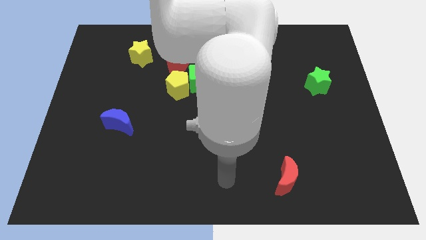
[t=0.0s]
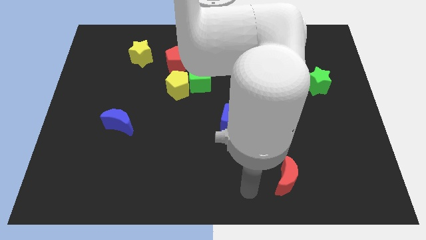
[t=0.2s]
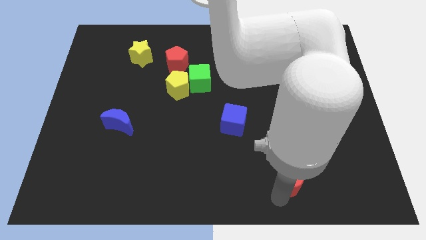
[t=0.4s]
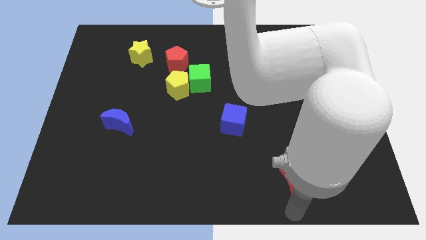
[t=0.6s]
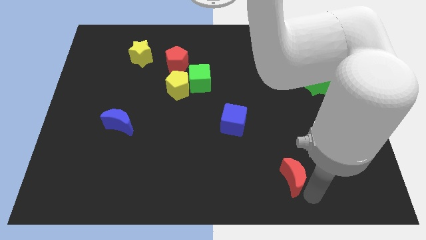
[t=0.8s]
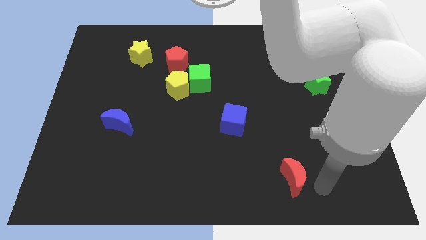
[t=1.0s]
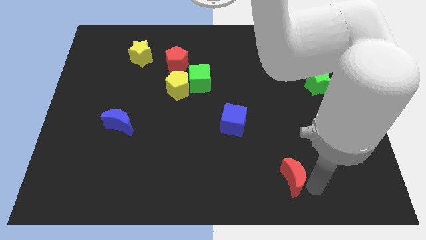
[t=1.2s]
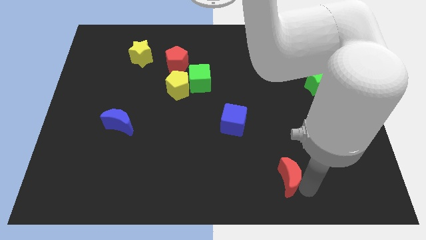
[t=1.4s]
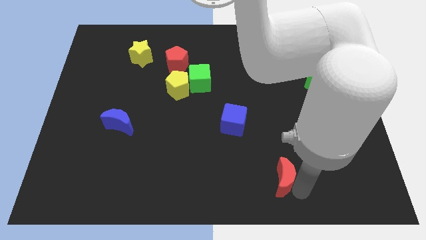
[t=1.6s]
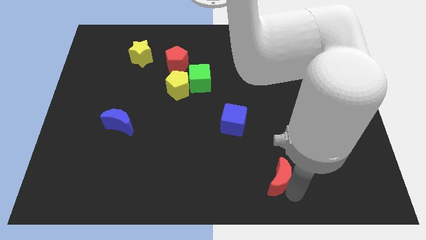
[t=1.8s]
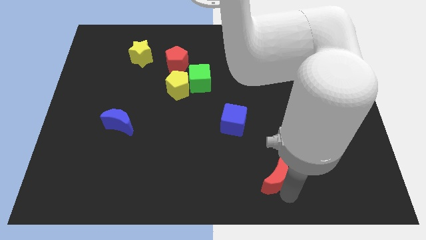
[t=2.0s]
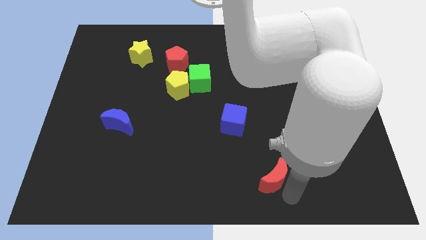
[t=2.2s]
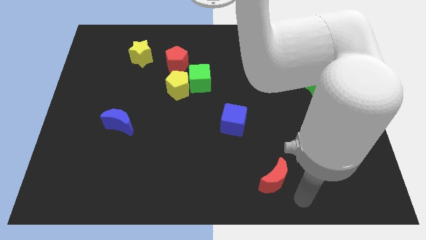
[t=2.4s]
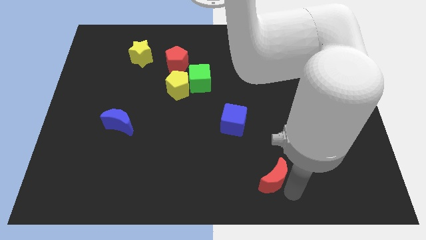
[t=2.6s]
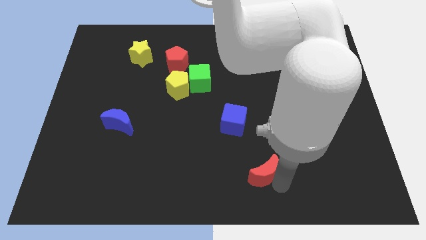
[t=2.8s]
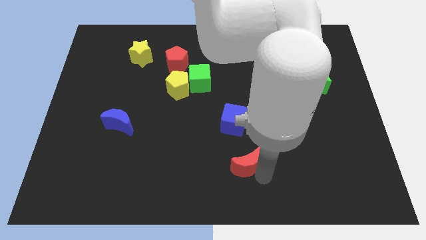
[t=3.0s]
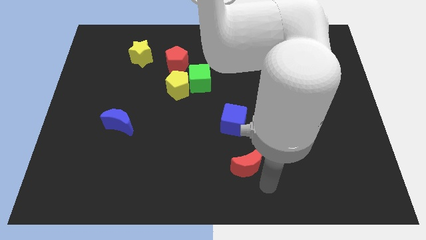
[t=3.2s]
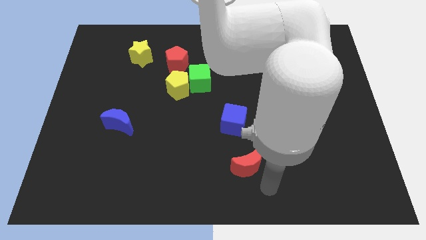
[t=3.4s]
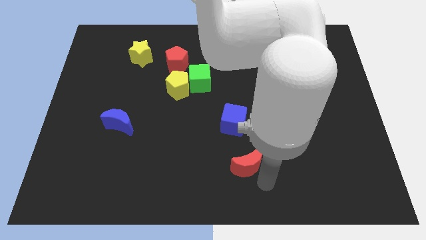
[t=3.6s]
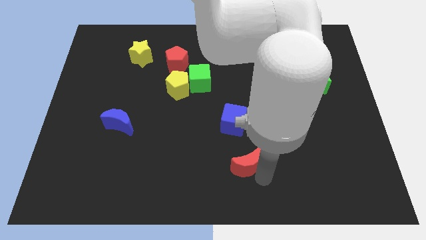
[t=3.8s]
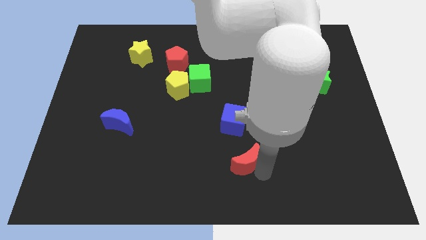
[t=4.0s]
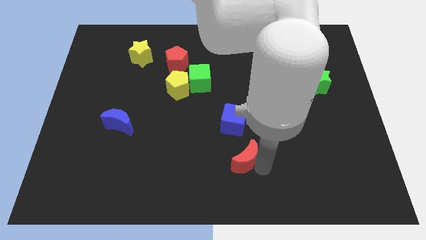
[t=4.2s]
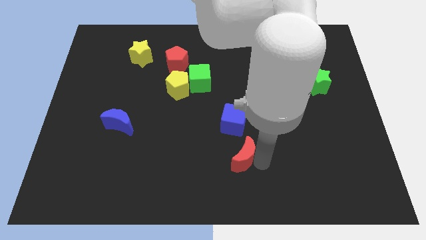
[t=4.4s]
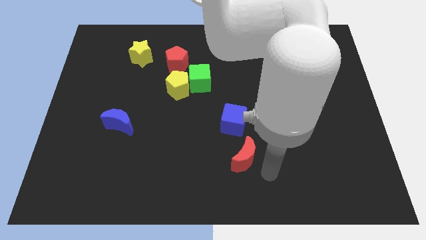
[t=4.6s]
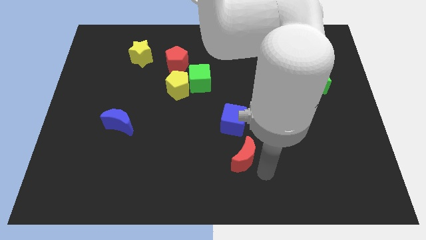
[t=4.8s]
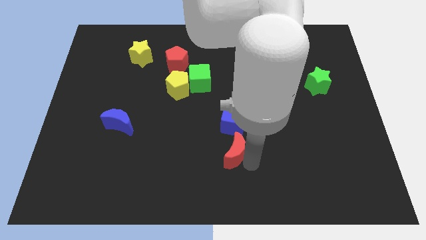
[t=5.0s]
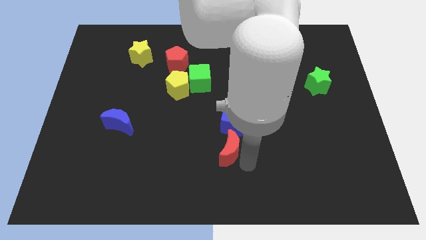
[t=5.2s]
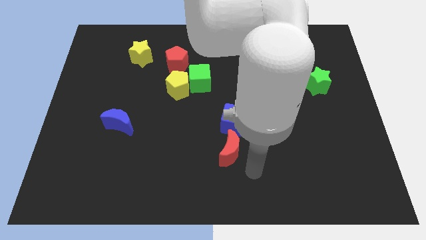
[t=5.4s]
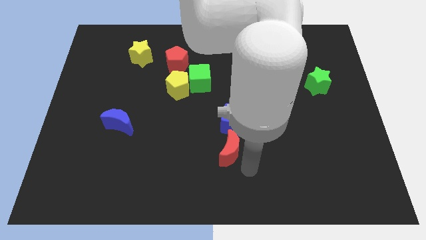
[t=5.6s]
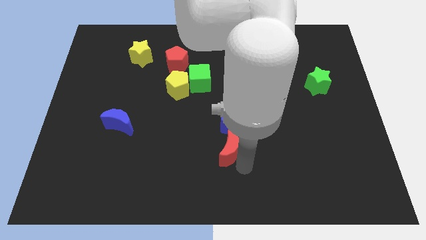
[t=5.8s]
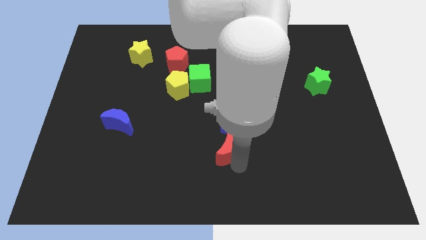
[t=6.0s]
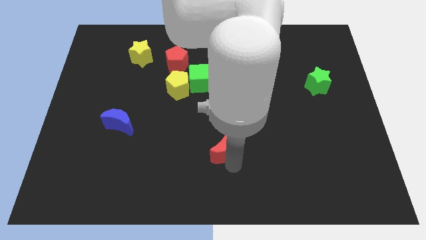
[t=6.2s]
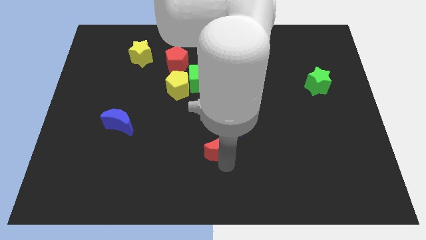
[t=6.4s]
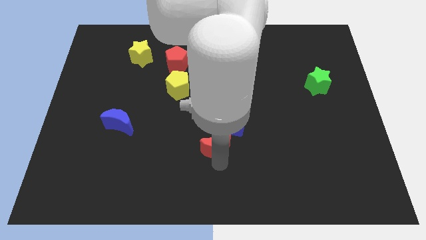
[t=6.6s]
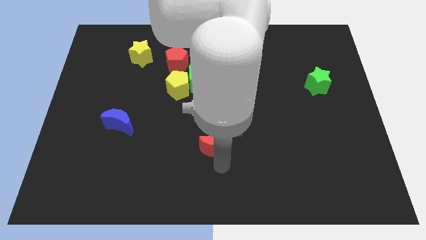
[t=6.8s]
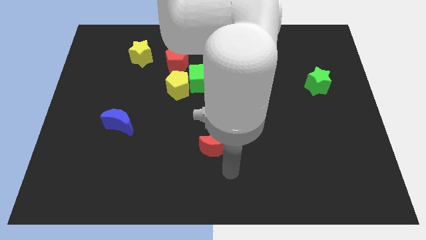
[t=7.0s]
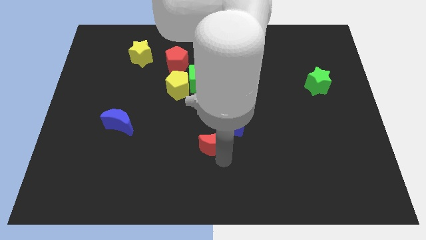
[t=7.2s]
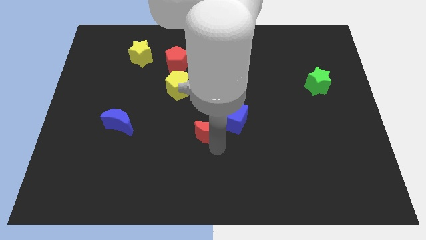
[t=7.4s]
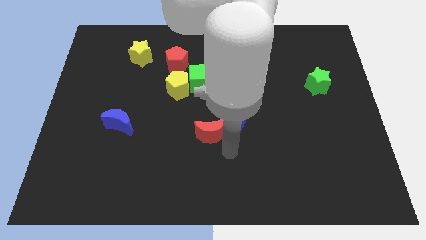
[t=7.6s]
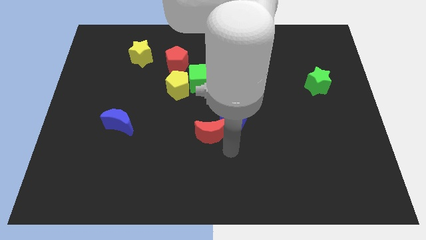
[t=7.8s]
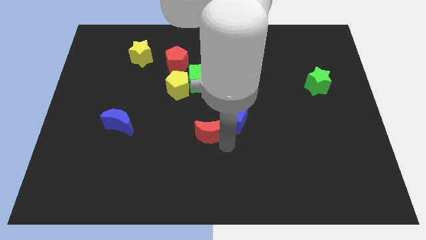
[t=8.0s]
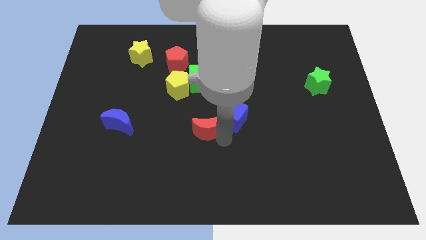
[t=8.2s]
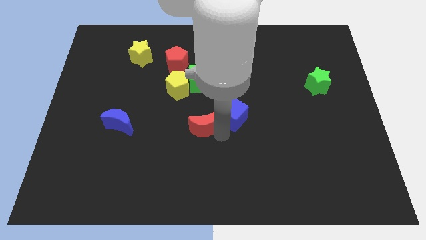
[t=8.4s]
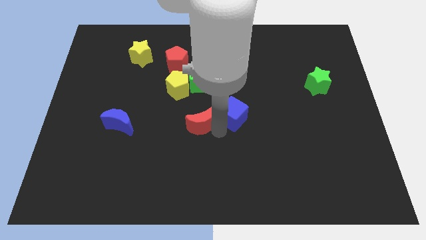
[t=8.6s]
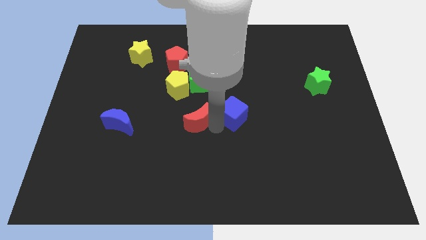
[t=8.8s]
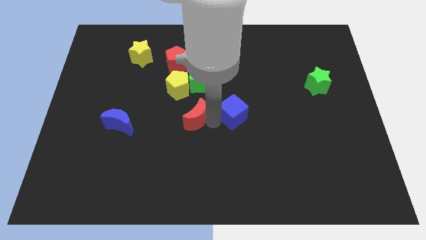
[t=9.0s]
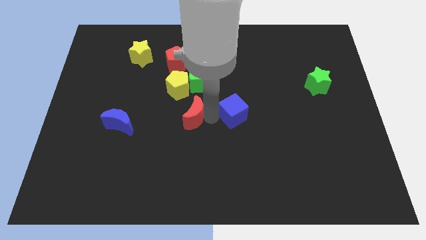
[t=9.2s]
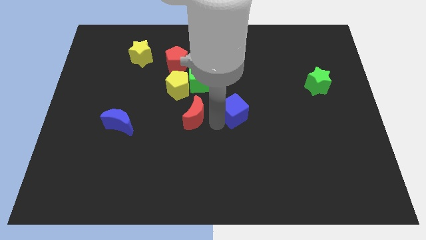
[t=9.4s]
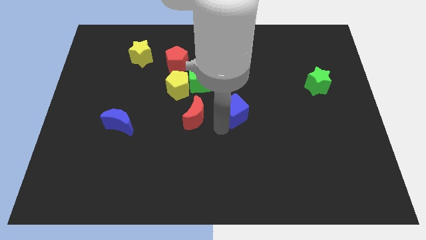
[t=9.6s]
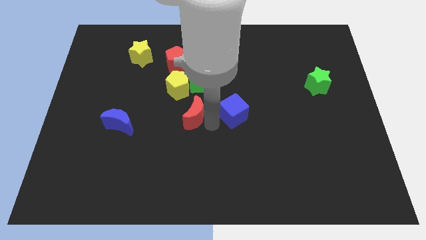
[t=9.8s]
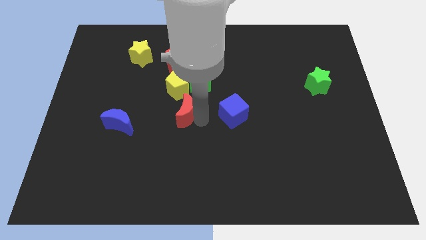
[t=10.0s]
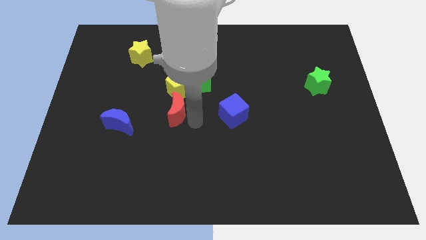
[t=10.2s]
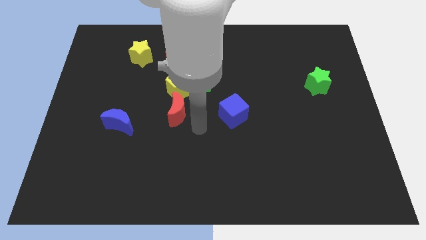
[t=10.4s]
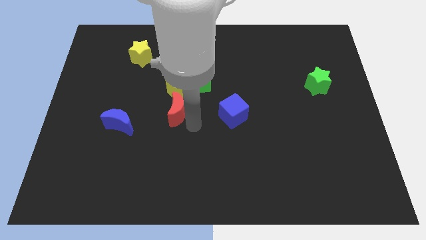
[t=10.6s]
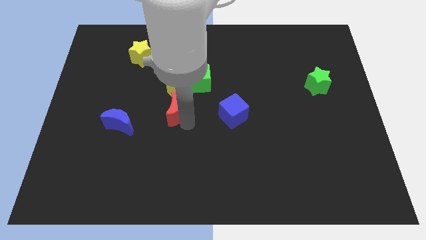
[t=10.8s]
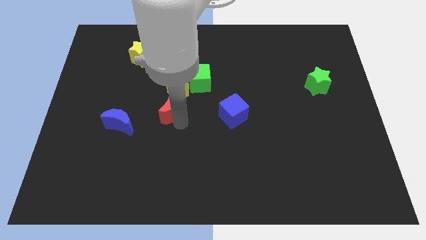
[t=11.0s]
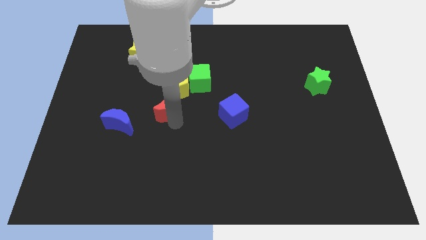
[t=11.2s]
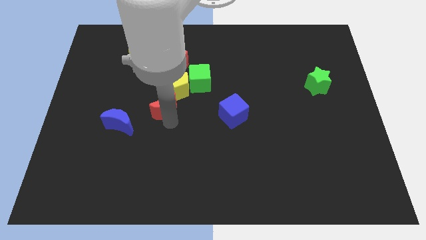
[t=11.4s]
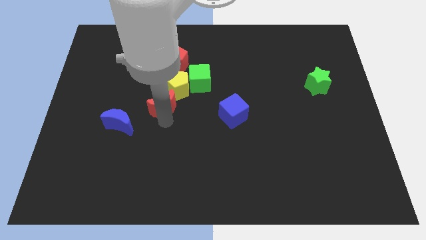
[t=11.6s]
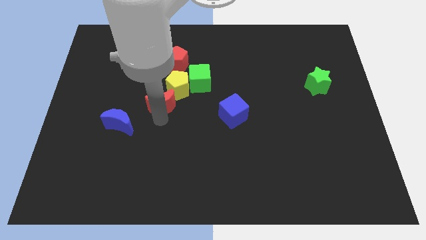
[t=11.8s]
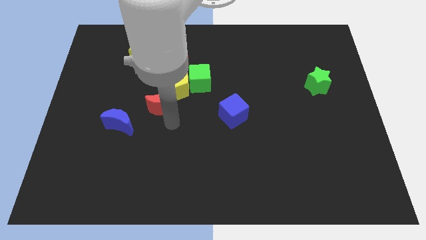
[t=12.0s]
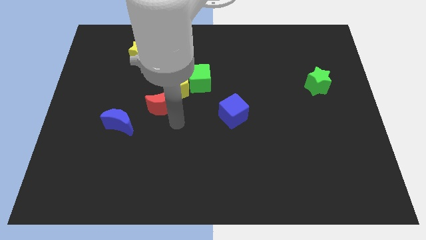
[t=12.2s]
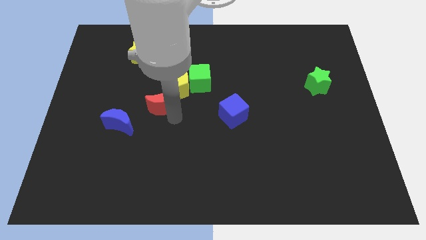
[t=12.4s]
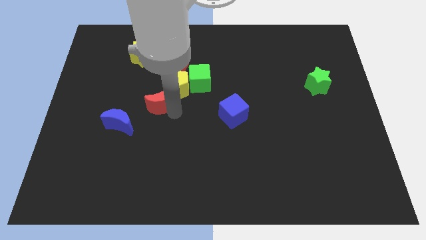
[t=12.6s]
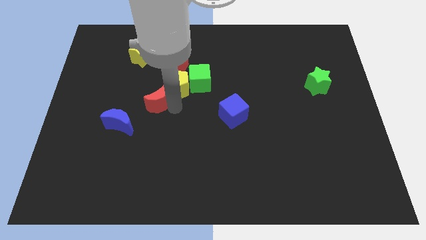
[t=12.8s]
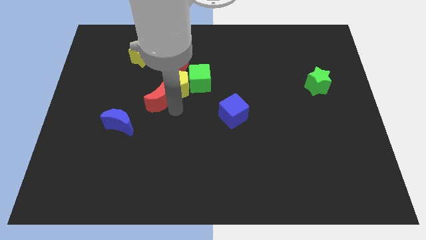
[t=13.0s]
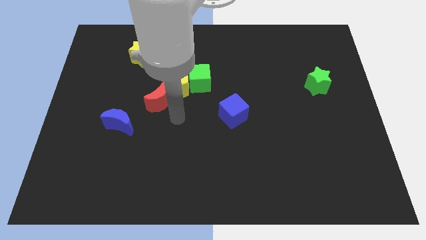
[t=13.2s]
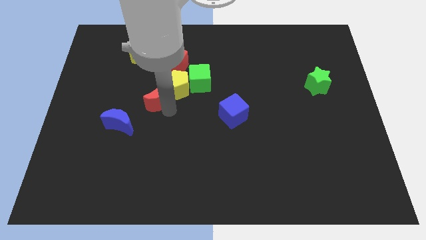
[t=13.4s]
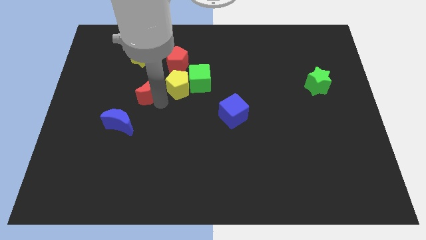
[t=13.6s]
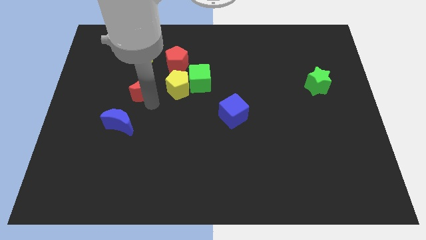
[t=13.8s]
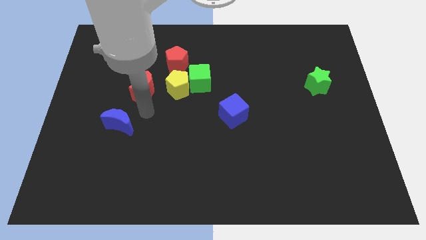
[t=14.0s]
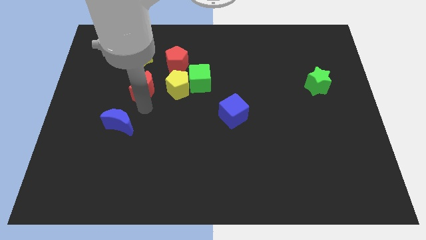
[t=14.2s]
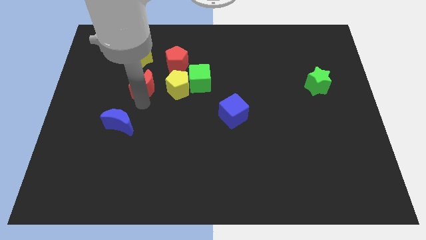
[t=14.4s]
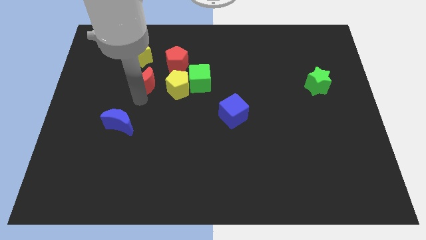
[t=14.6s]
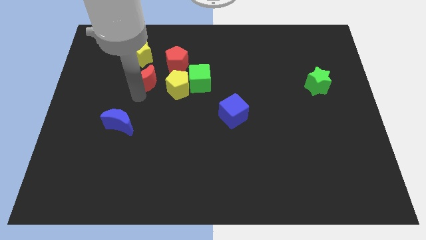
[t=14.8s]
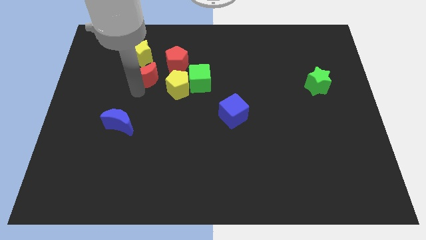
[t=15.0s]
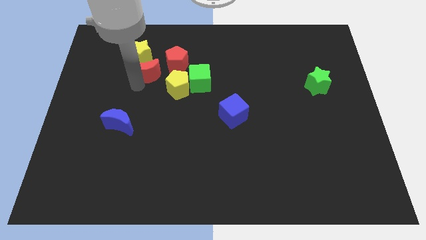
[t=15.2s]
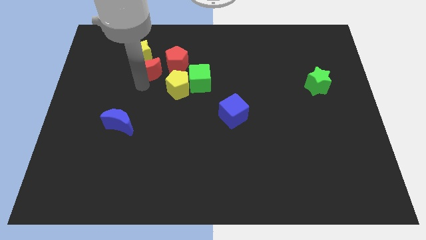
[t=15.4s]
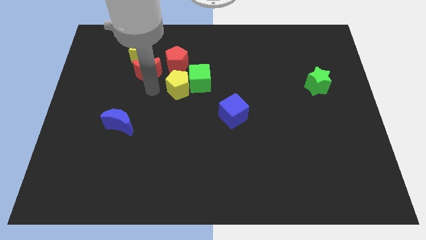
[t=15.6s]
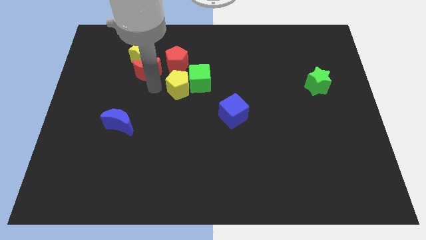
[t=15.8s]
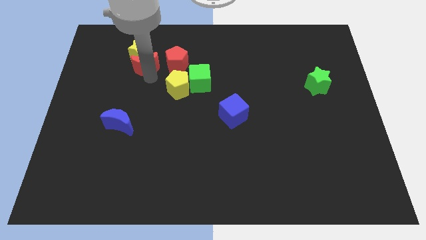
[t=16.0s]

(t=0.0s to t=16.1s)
push the red moon towards the yellow star
